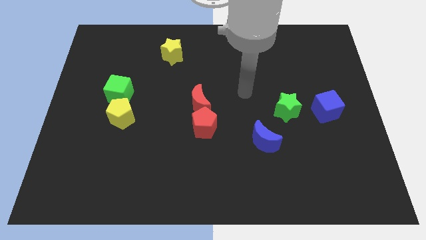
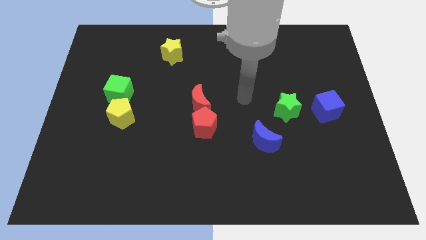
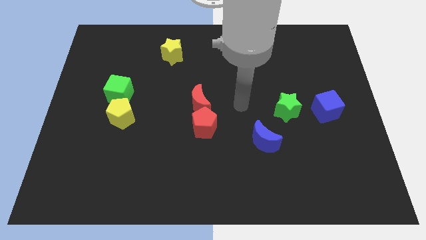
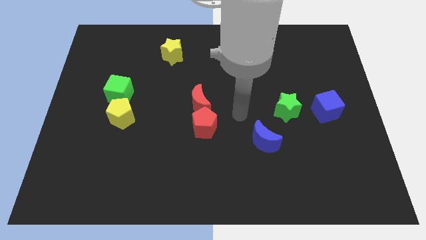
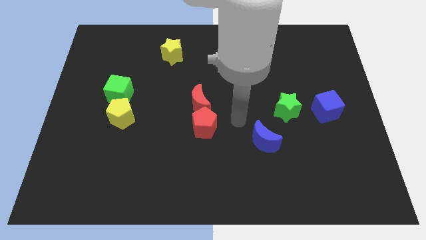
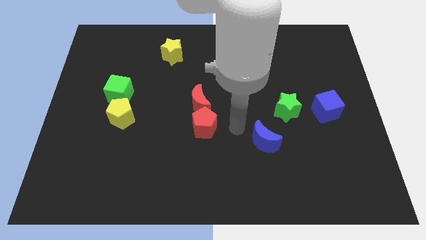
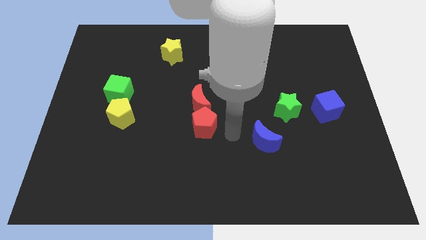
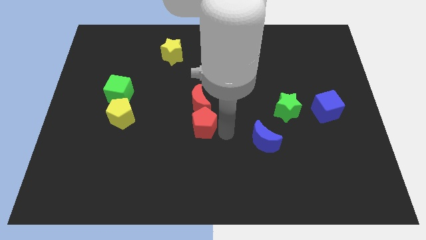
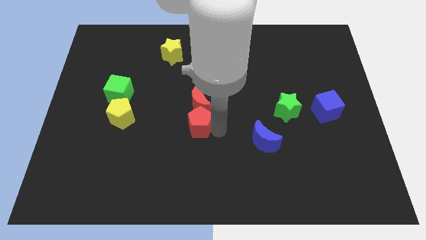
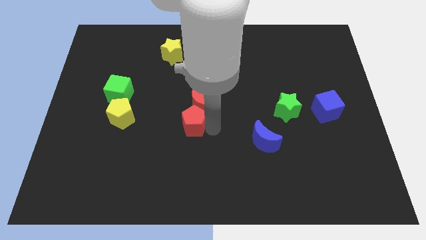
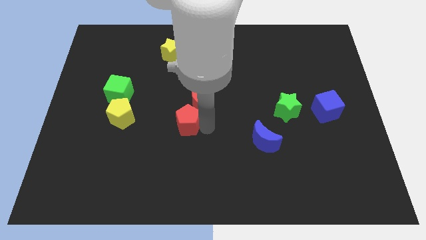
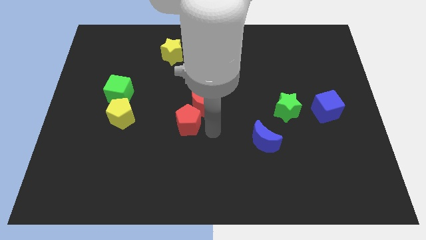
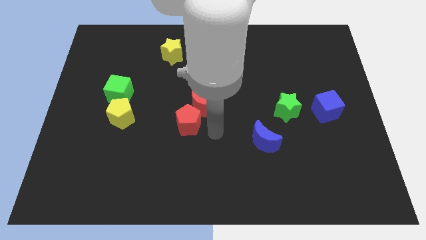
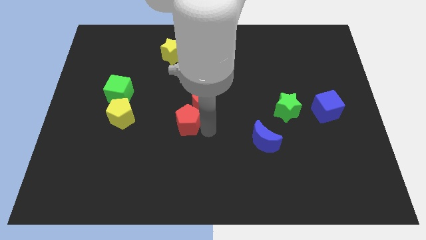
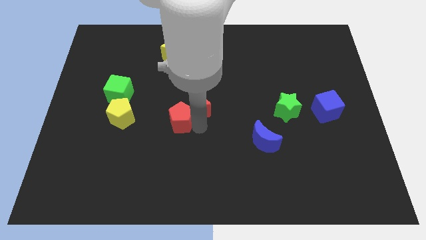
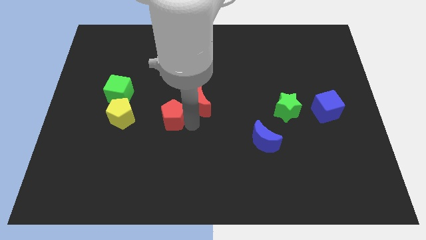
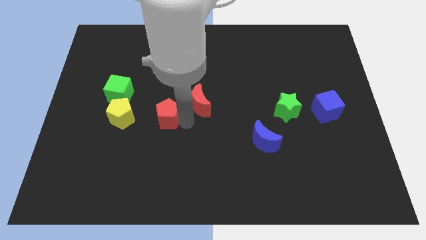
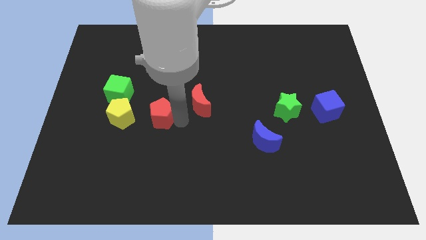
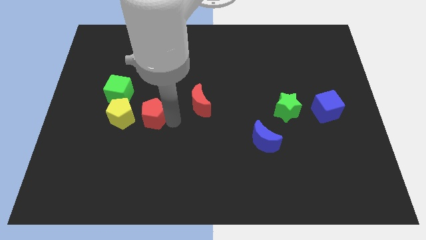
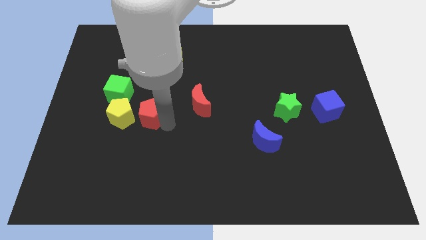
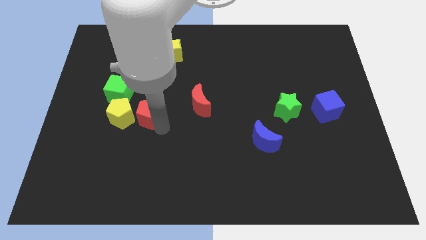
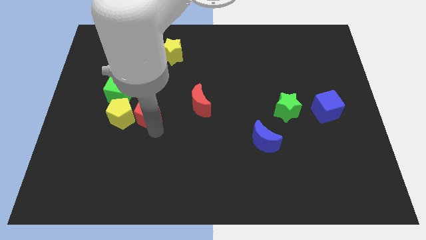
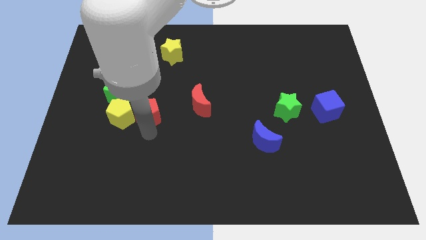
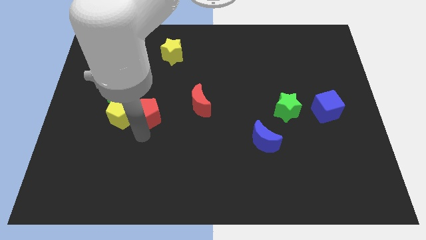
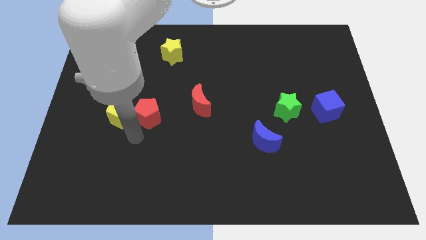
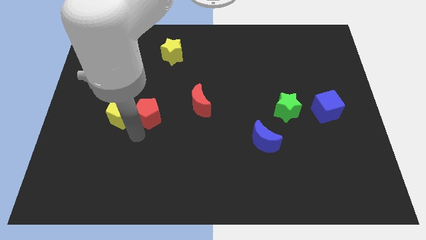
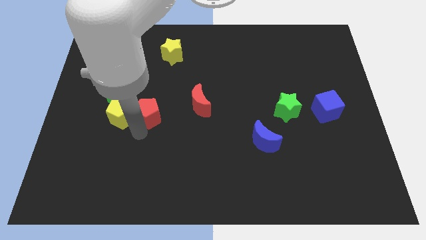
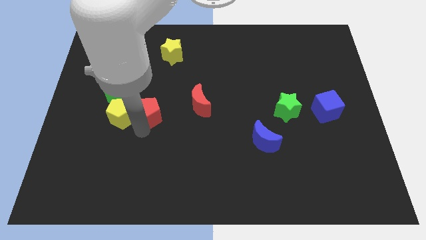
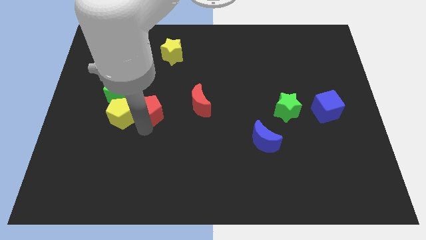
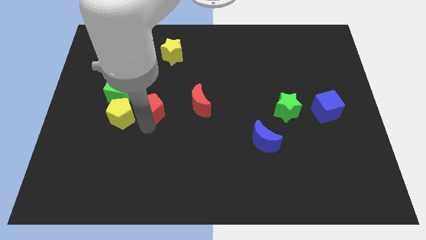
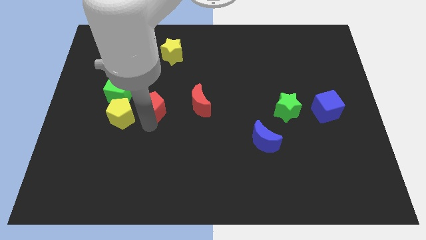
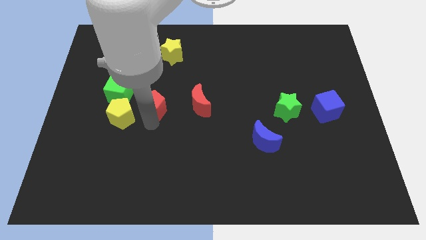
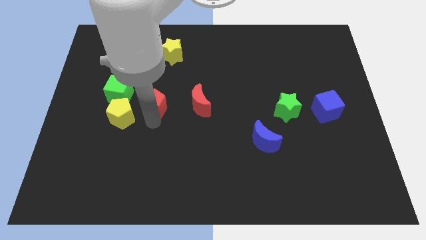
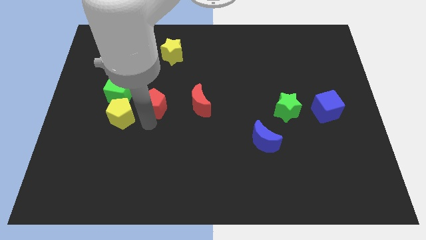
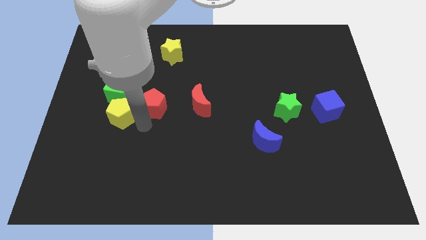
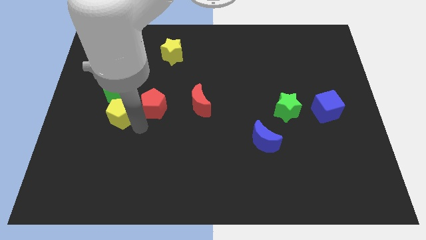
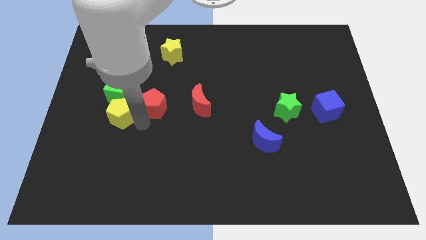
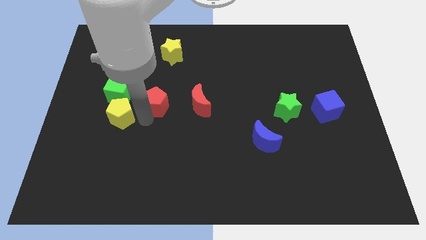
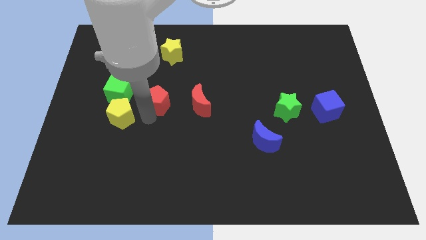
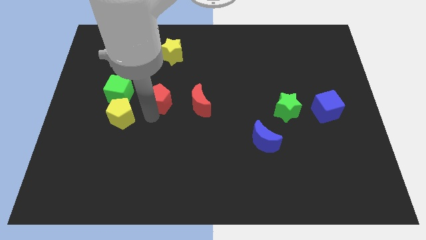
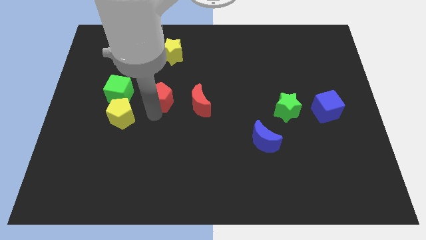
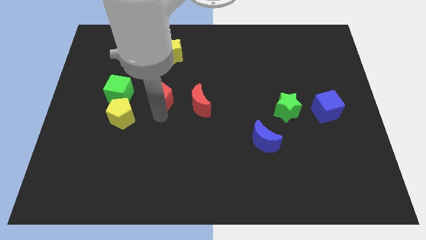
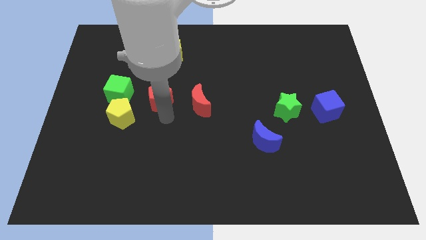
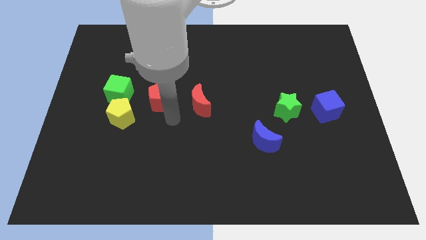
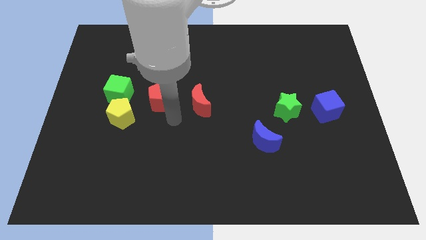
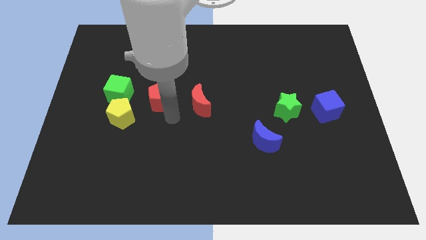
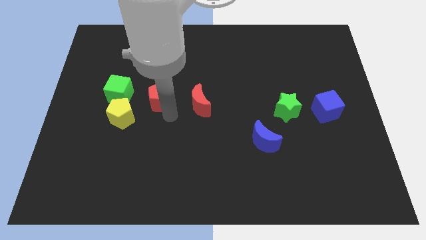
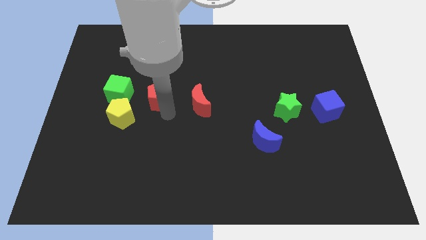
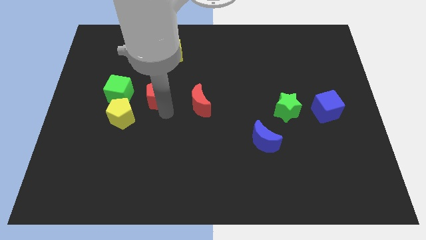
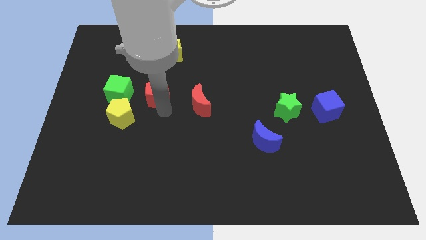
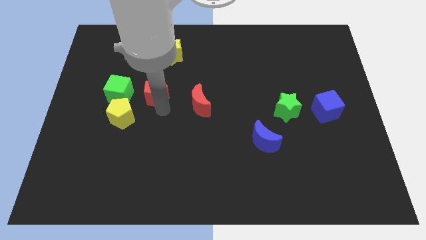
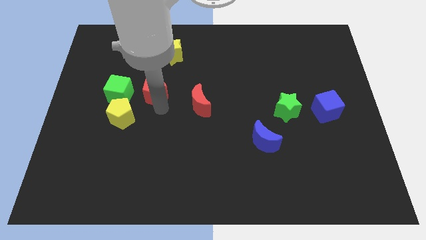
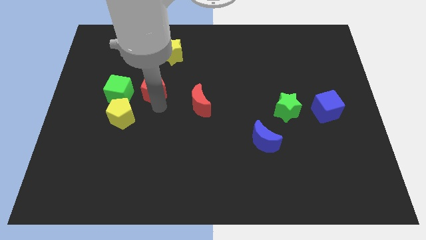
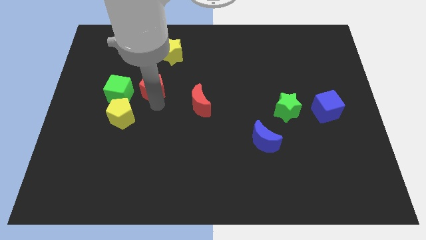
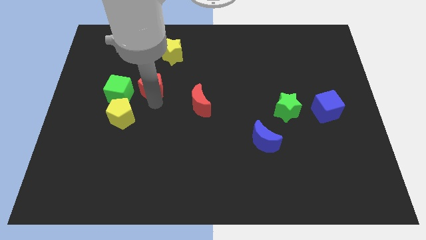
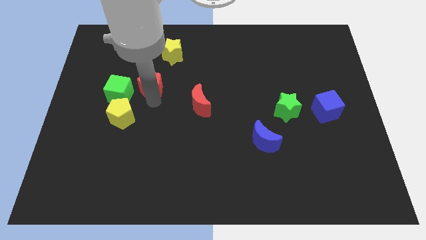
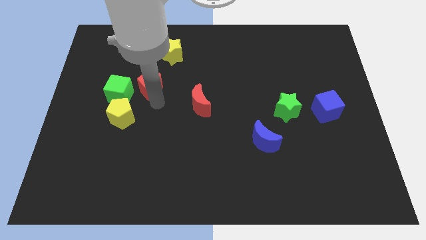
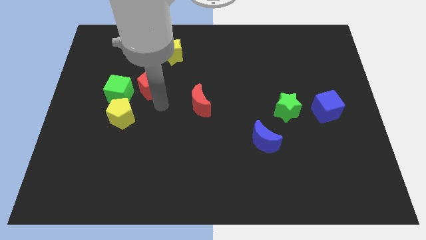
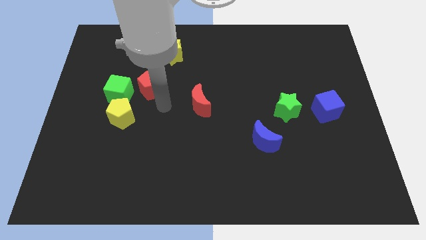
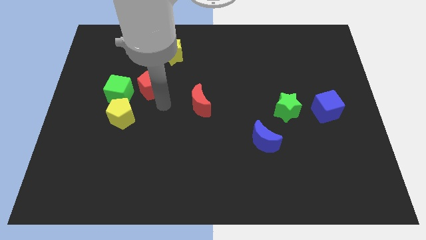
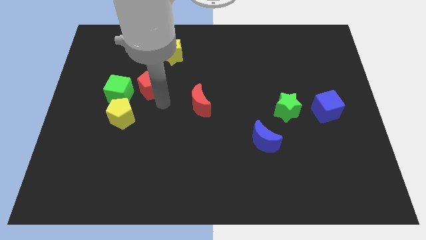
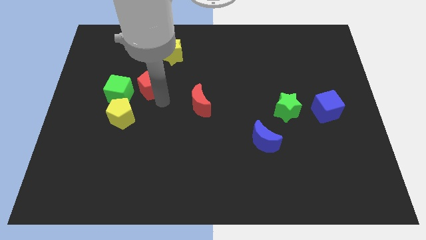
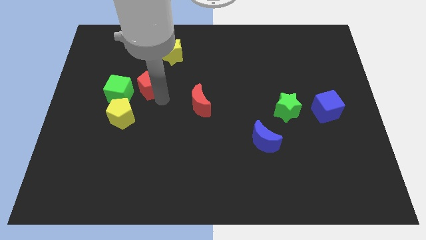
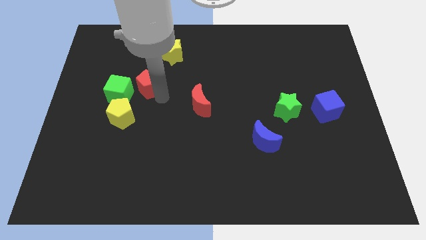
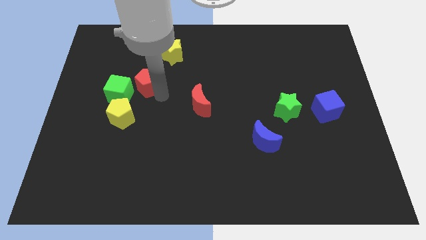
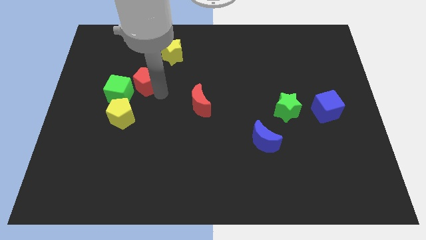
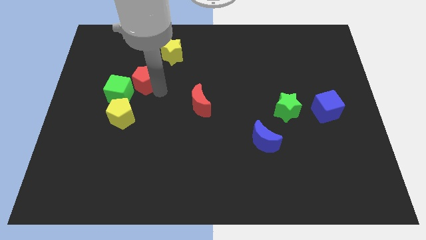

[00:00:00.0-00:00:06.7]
move the red pentagon diagonally upwards and left

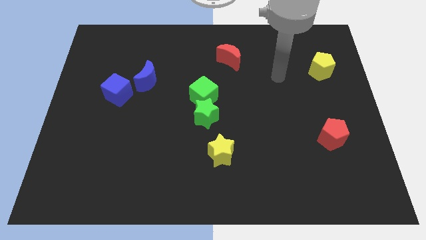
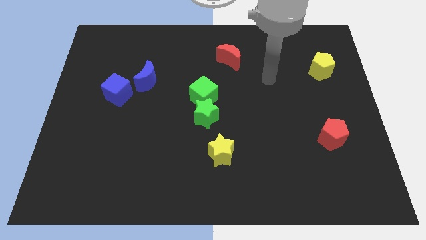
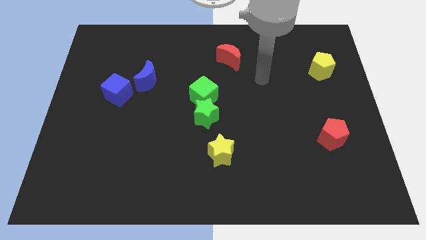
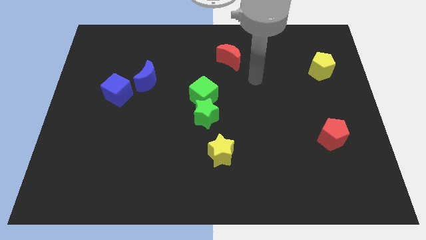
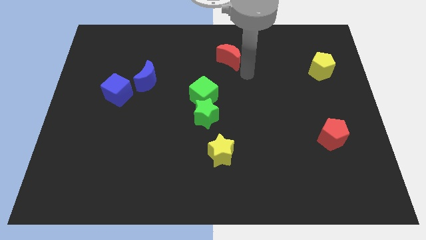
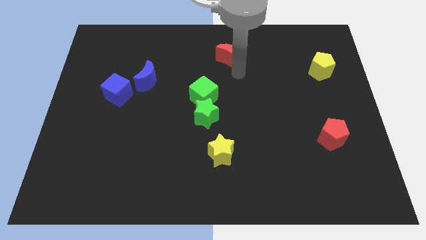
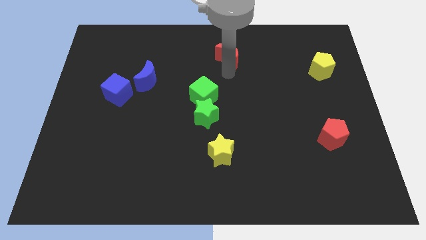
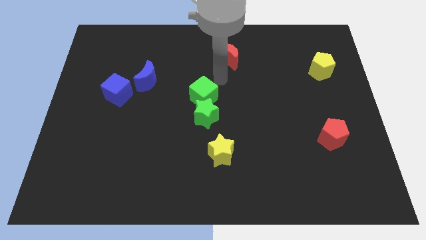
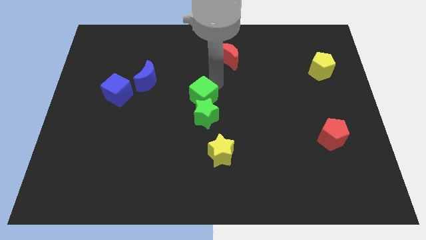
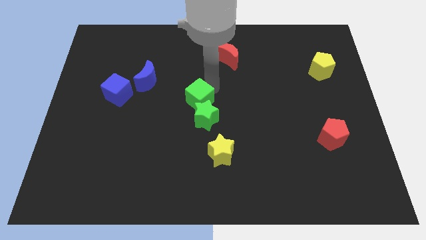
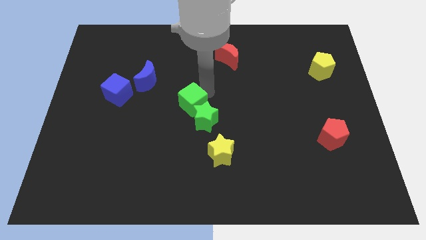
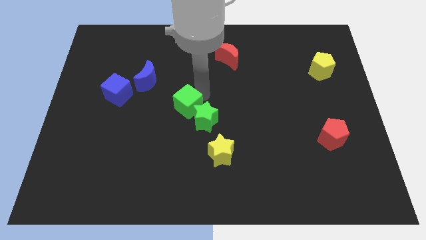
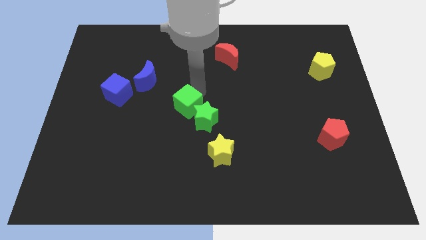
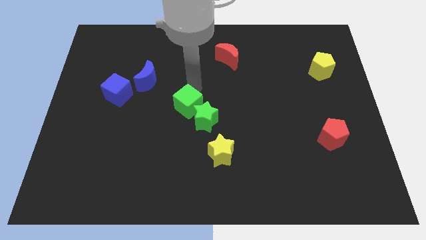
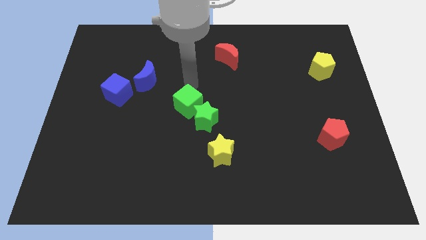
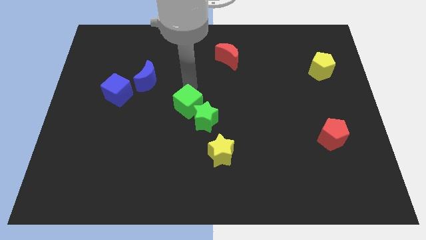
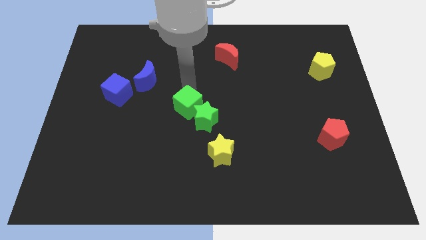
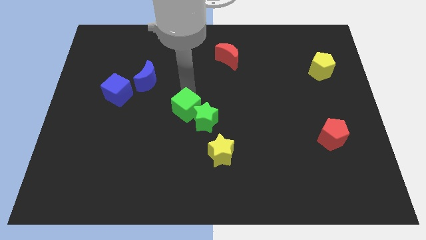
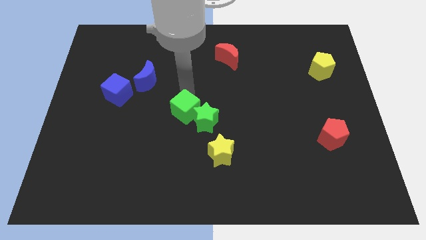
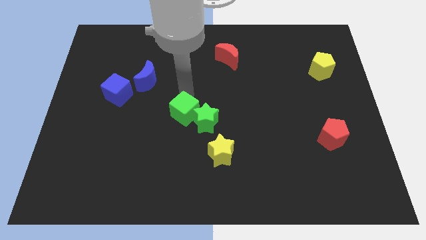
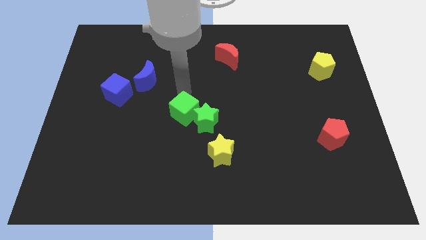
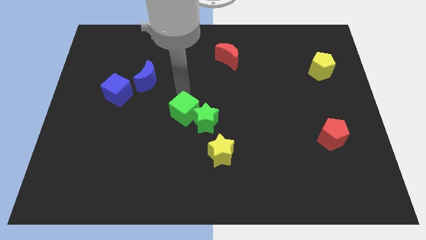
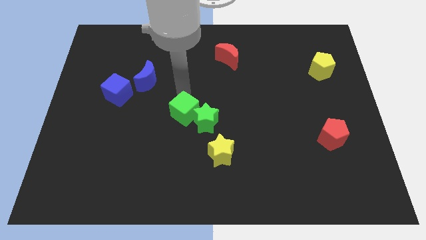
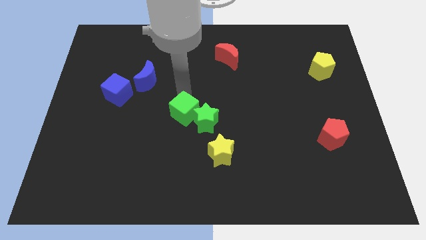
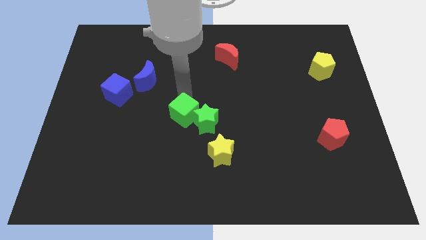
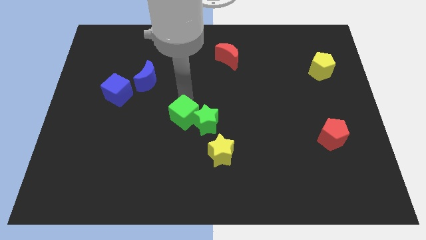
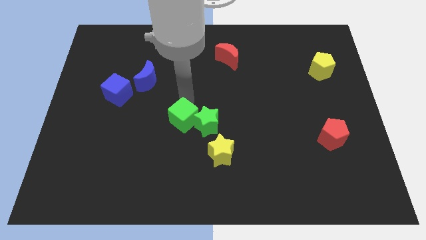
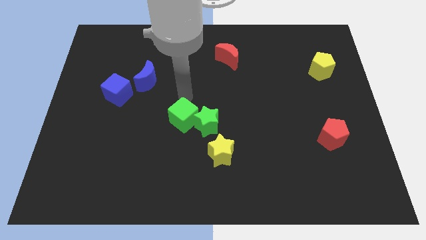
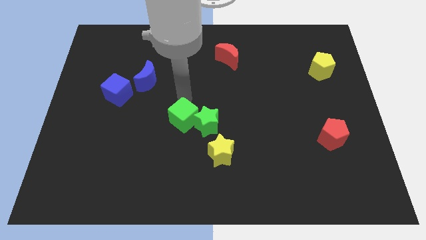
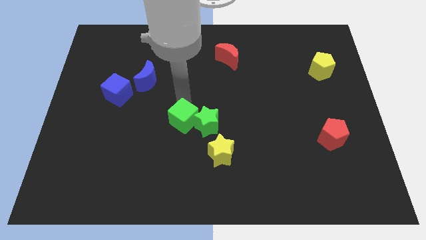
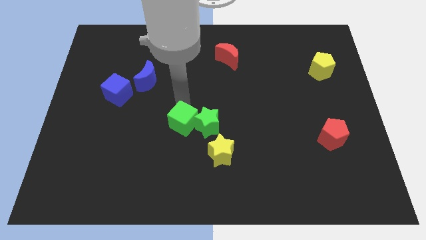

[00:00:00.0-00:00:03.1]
slightly push the green cube down
